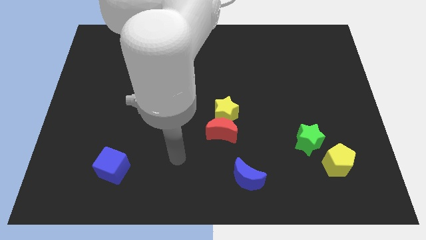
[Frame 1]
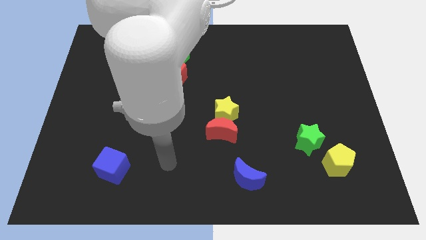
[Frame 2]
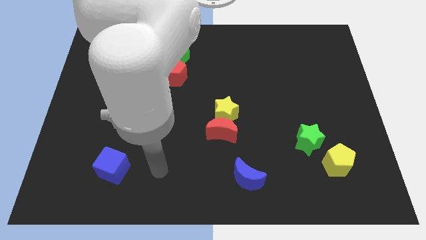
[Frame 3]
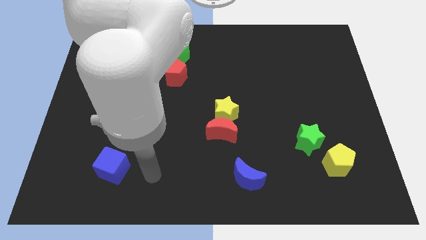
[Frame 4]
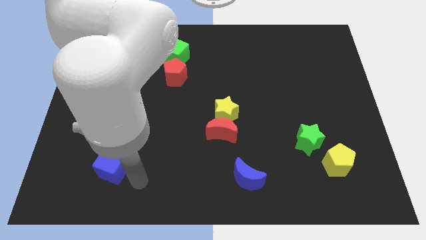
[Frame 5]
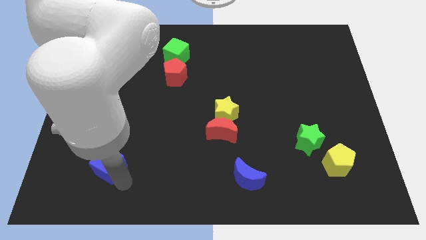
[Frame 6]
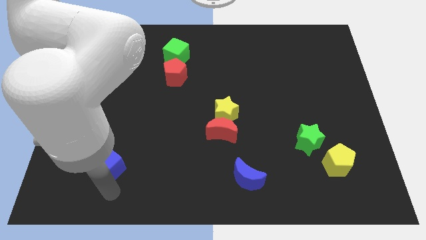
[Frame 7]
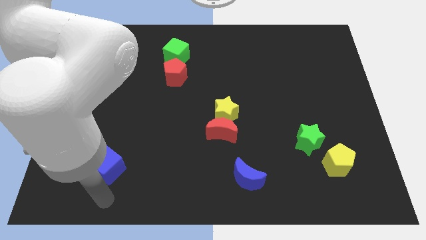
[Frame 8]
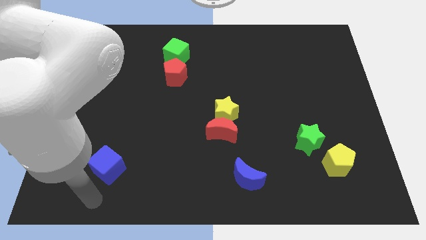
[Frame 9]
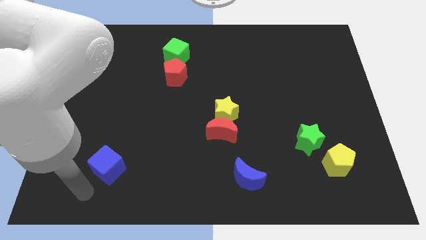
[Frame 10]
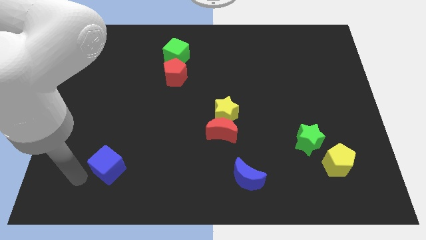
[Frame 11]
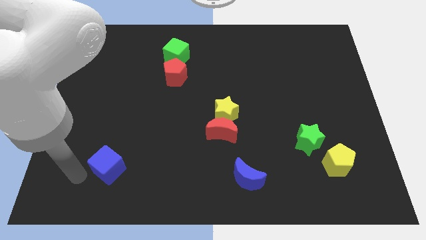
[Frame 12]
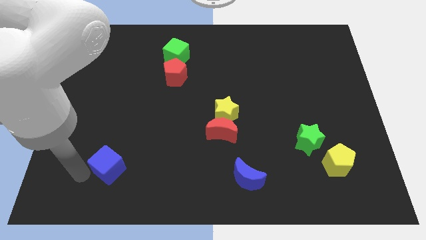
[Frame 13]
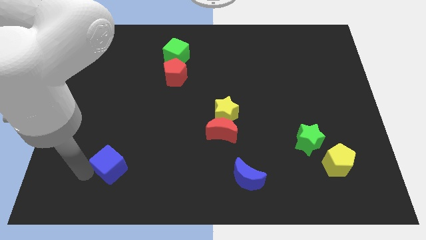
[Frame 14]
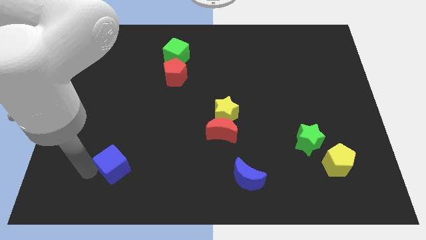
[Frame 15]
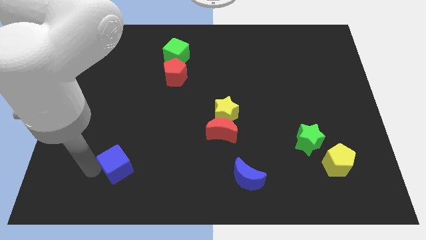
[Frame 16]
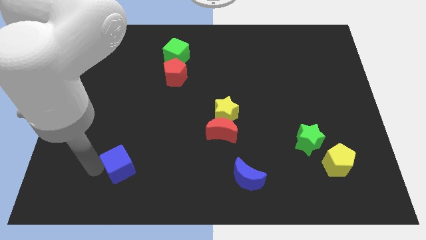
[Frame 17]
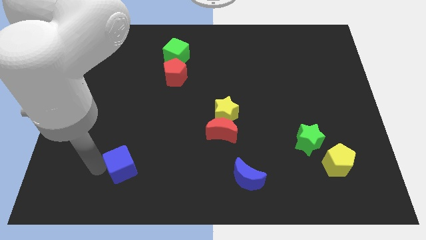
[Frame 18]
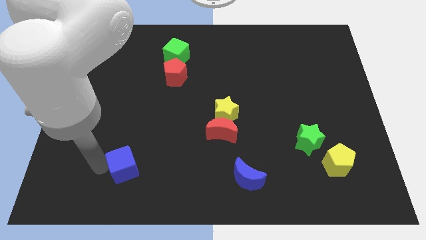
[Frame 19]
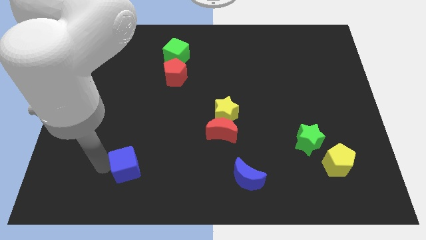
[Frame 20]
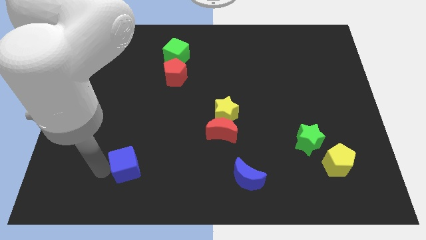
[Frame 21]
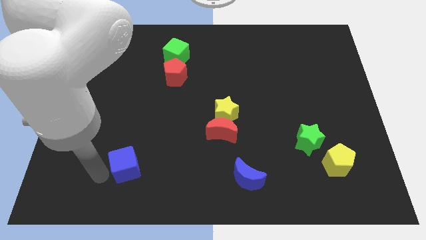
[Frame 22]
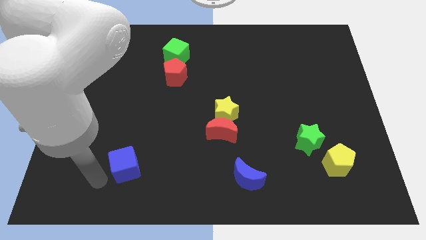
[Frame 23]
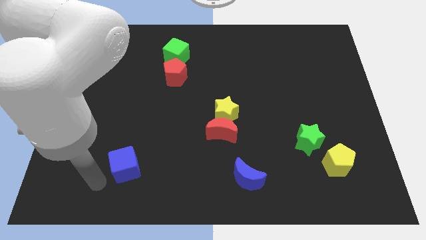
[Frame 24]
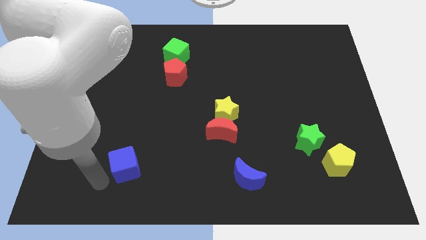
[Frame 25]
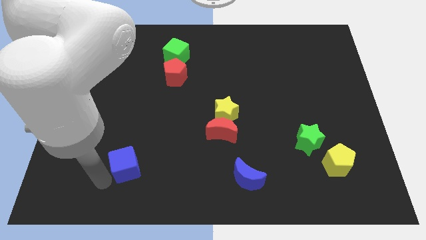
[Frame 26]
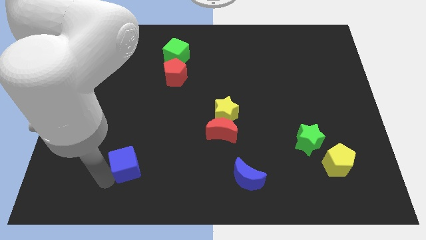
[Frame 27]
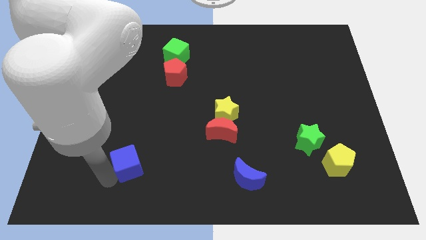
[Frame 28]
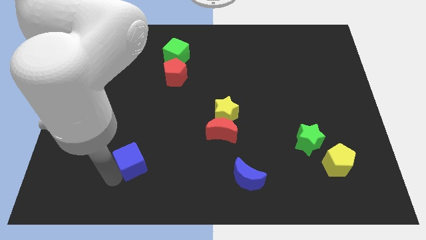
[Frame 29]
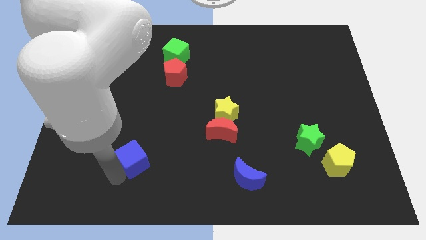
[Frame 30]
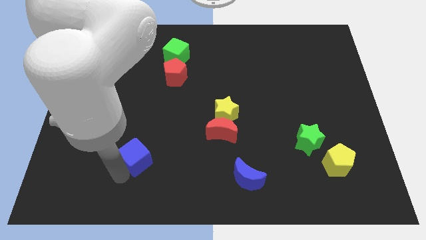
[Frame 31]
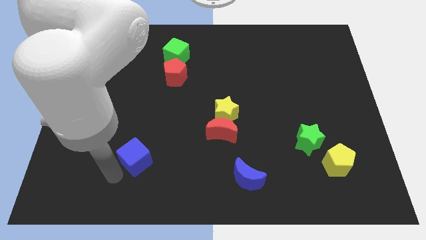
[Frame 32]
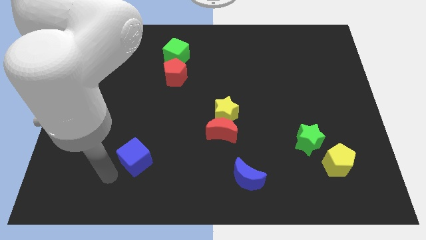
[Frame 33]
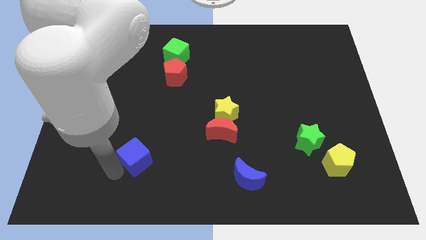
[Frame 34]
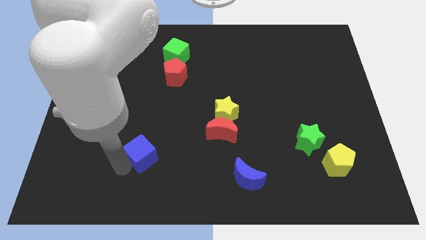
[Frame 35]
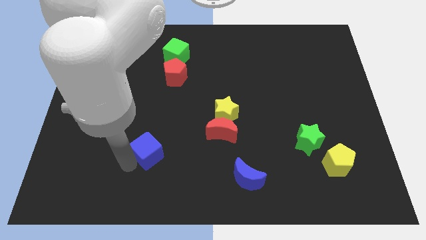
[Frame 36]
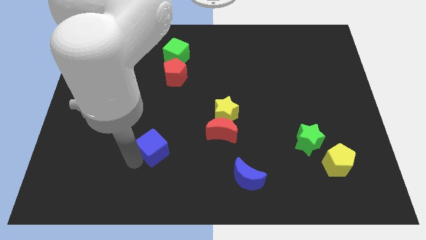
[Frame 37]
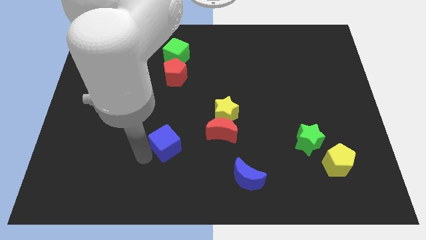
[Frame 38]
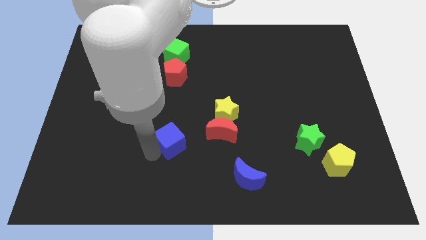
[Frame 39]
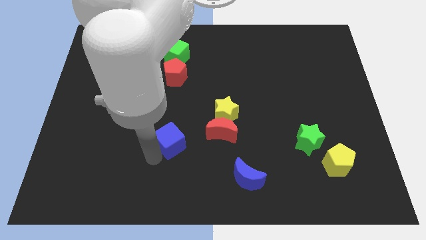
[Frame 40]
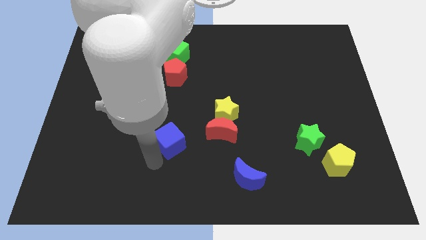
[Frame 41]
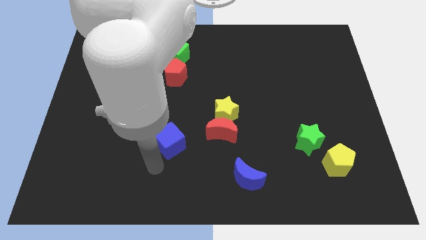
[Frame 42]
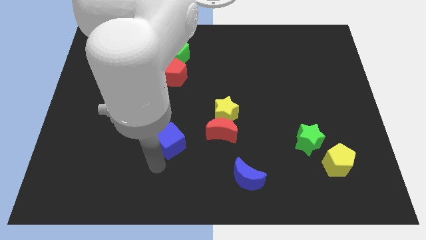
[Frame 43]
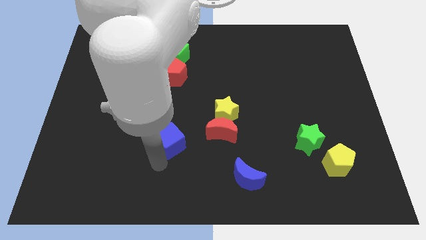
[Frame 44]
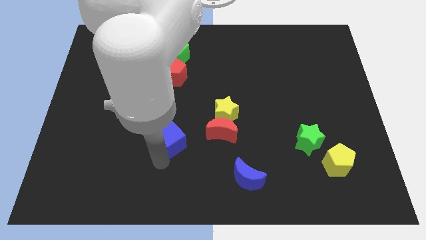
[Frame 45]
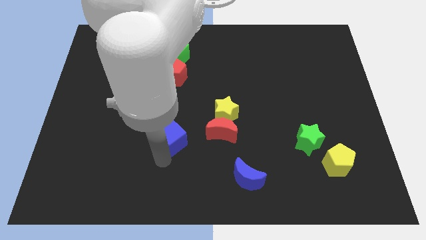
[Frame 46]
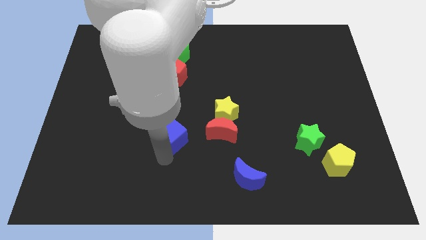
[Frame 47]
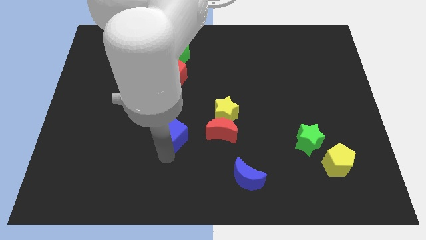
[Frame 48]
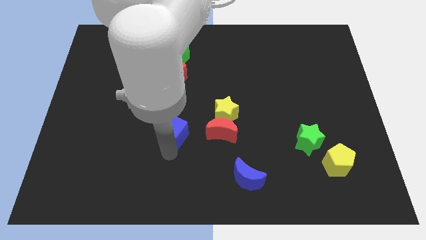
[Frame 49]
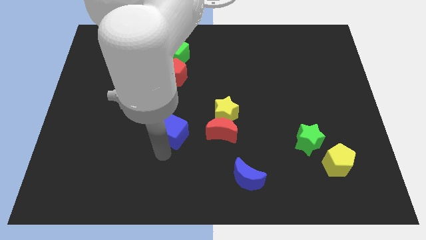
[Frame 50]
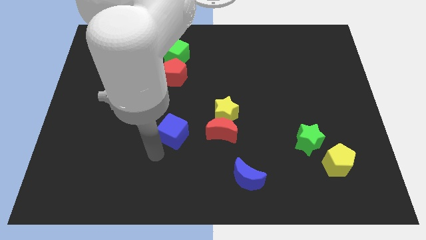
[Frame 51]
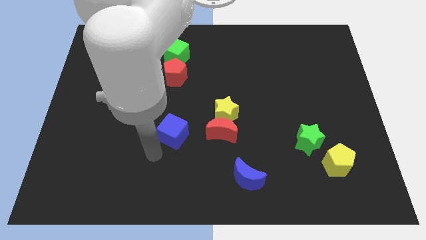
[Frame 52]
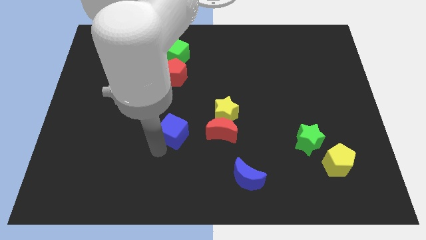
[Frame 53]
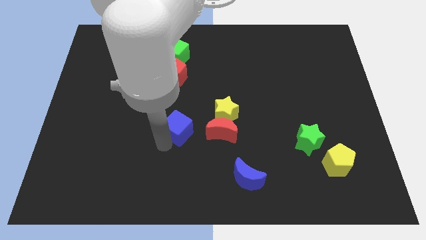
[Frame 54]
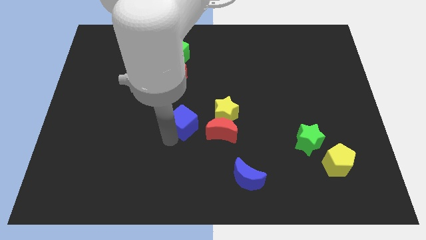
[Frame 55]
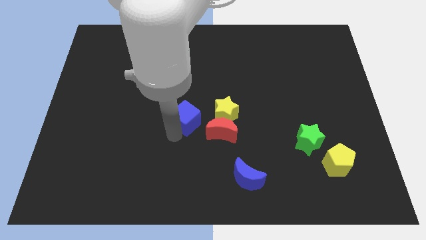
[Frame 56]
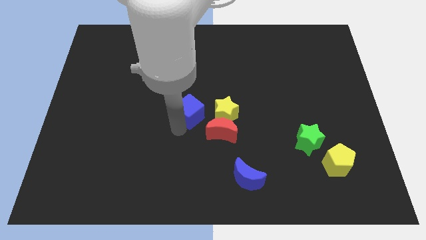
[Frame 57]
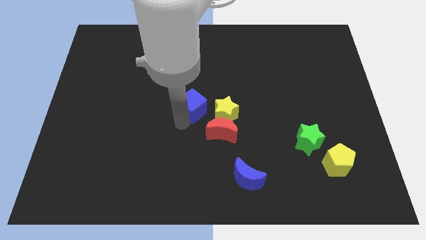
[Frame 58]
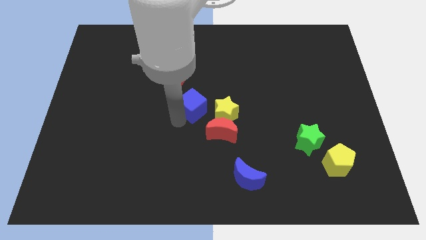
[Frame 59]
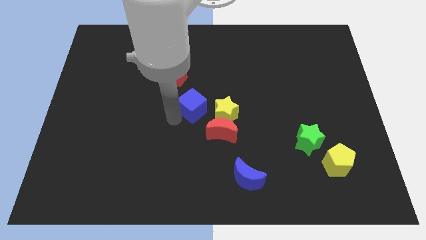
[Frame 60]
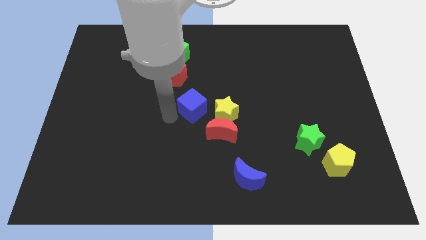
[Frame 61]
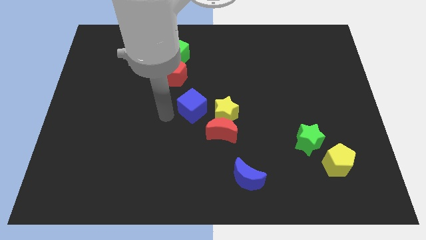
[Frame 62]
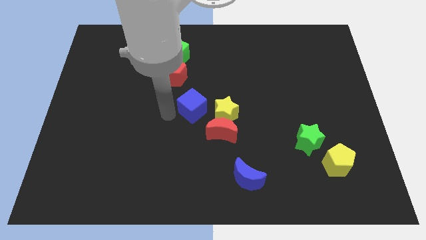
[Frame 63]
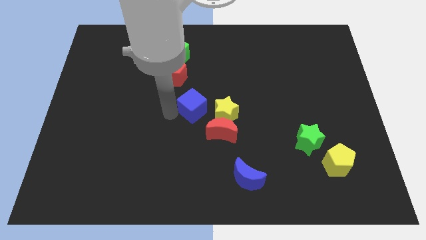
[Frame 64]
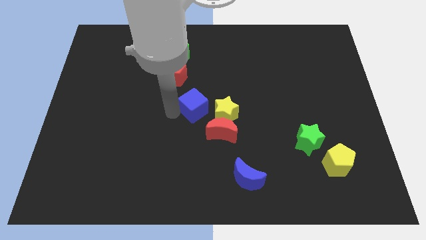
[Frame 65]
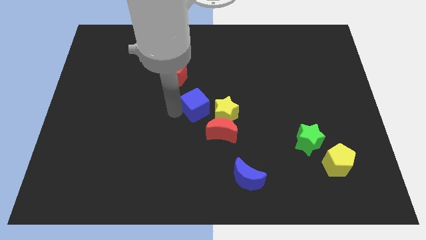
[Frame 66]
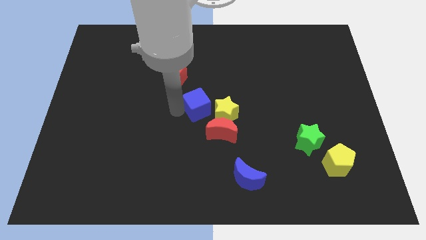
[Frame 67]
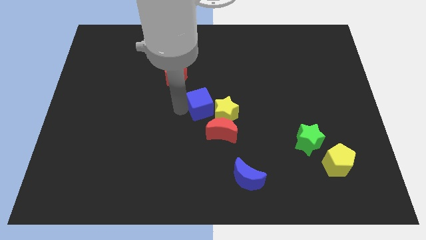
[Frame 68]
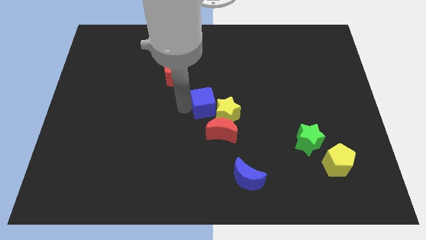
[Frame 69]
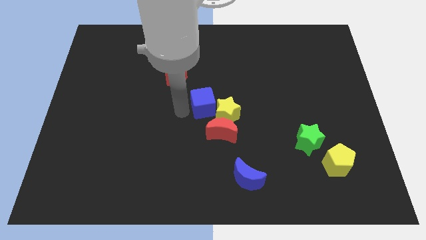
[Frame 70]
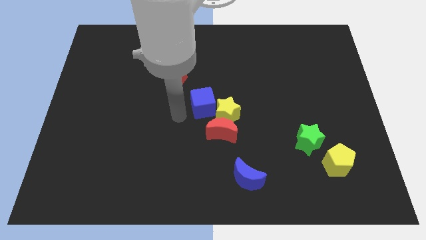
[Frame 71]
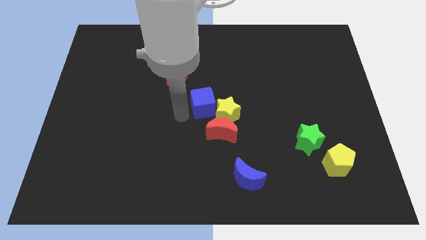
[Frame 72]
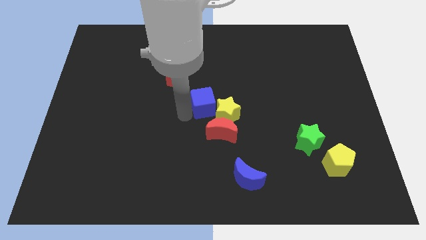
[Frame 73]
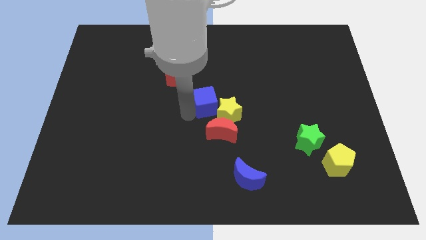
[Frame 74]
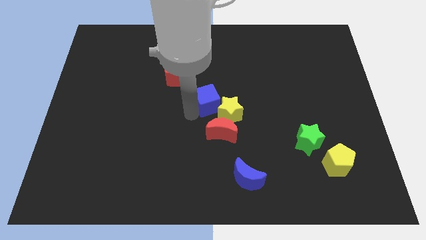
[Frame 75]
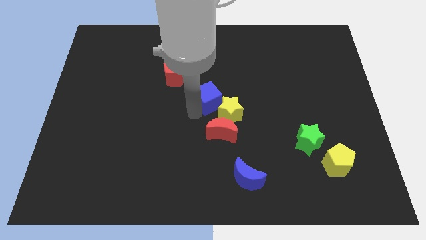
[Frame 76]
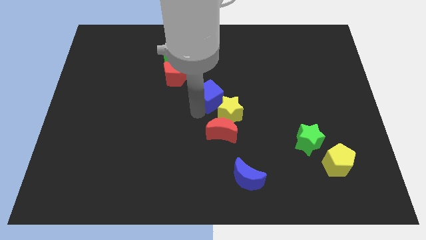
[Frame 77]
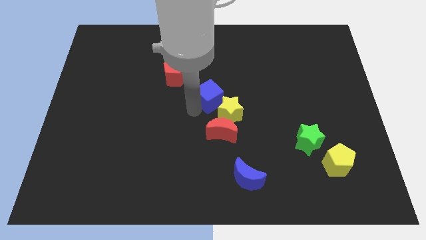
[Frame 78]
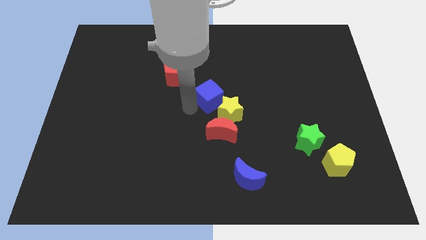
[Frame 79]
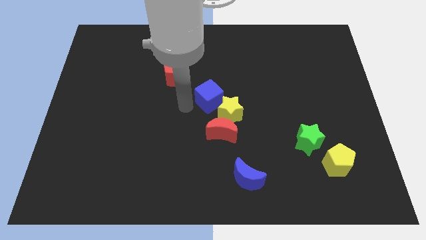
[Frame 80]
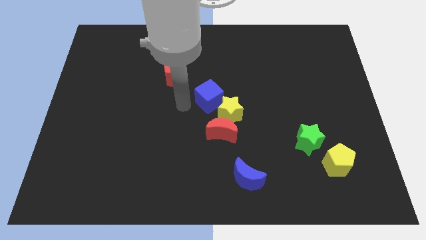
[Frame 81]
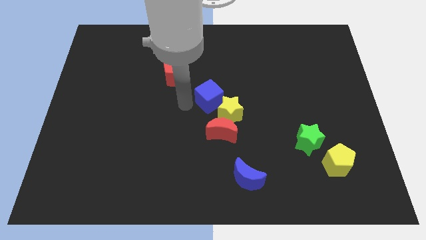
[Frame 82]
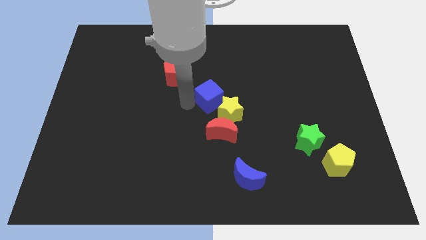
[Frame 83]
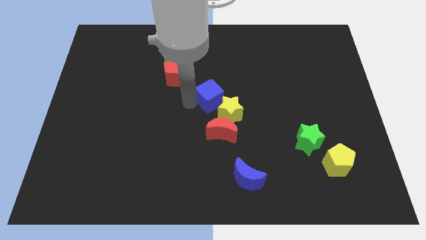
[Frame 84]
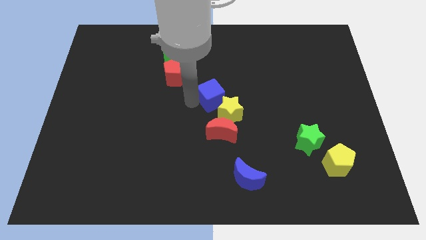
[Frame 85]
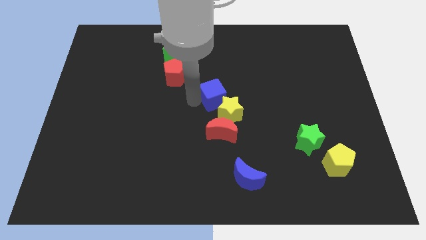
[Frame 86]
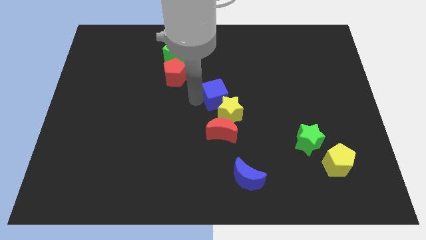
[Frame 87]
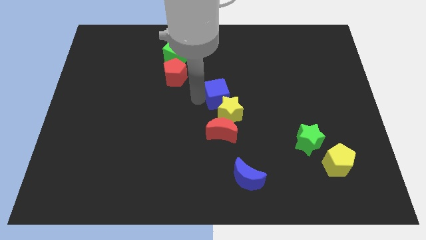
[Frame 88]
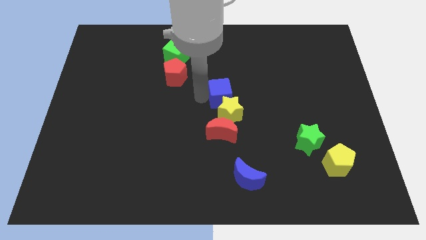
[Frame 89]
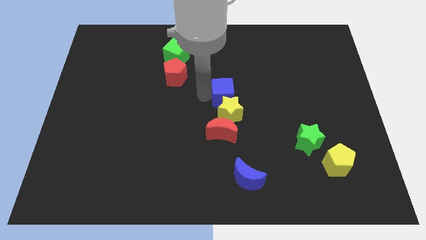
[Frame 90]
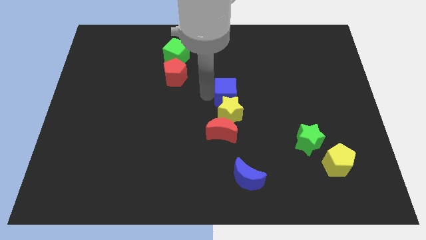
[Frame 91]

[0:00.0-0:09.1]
push the blue cube to the top right of the yellow star
